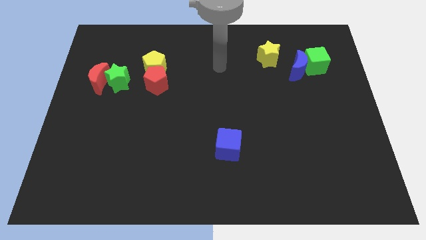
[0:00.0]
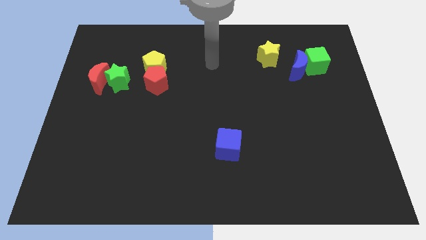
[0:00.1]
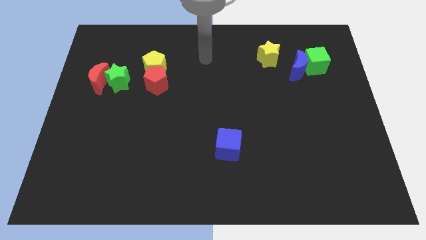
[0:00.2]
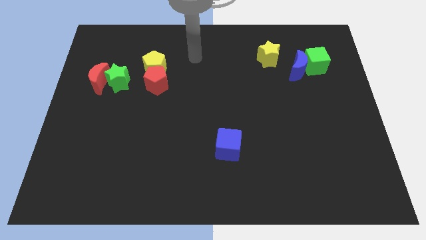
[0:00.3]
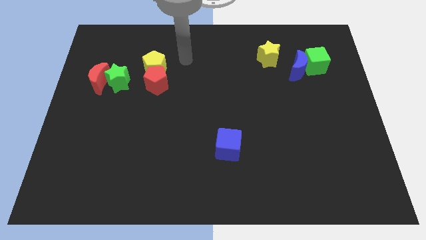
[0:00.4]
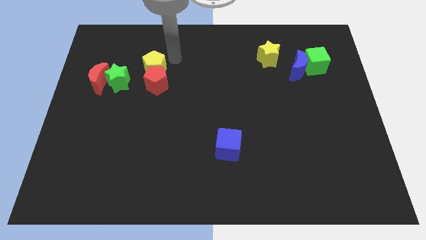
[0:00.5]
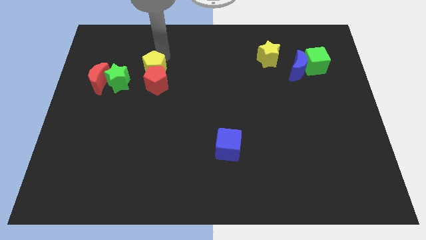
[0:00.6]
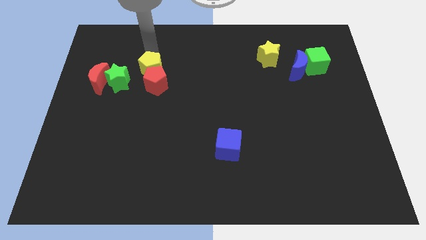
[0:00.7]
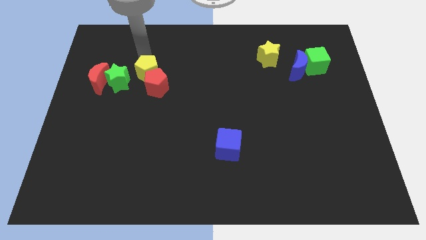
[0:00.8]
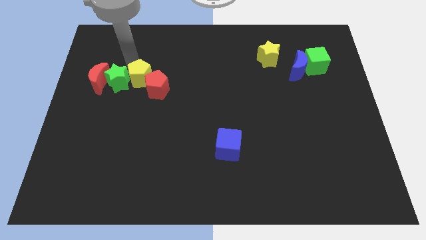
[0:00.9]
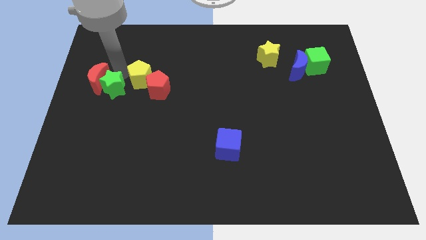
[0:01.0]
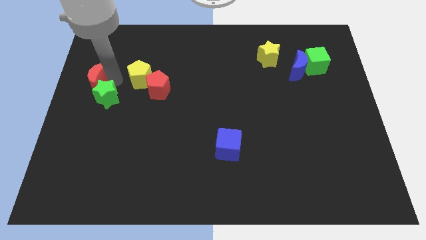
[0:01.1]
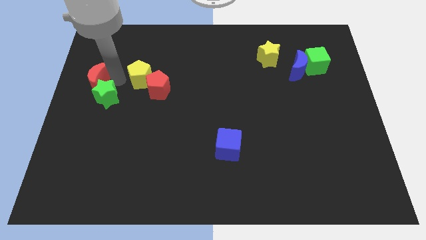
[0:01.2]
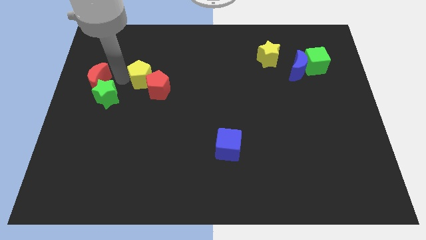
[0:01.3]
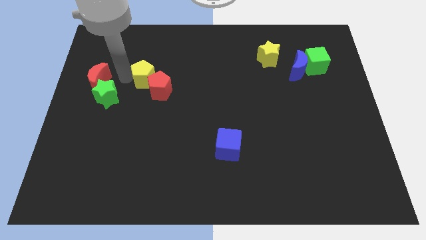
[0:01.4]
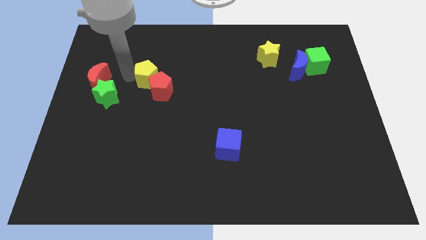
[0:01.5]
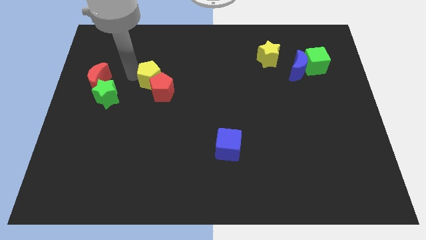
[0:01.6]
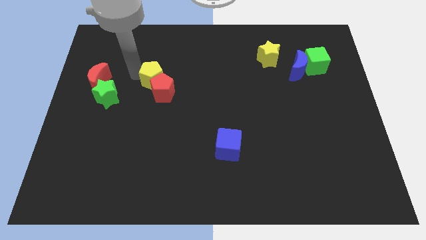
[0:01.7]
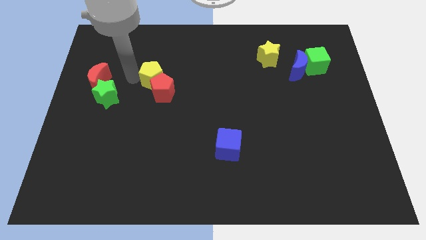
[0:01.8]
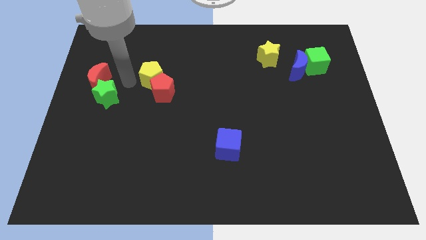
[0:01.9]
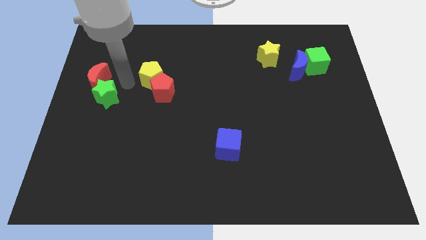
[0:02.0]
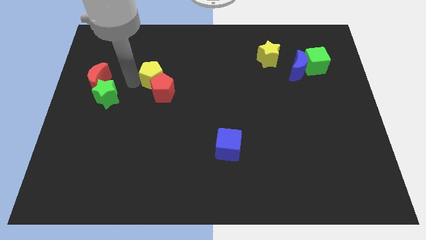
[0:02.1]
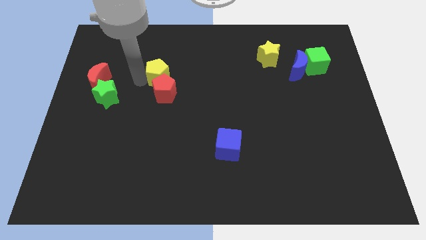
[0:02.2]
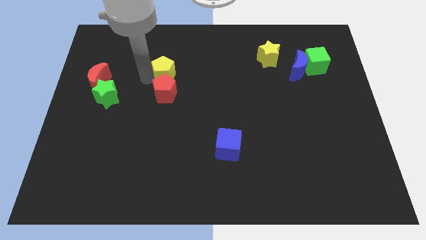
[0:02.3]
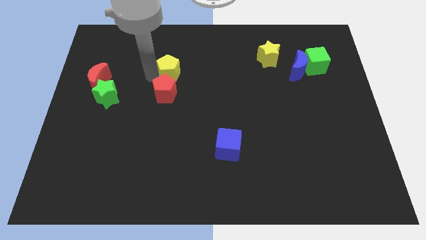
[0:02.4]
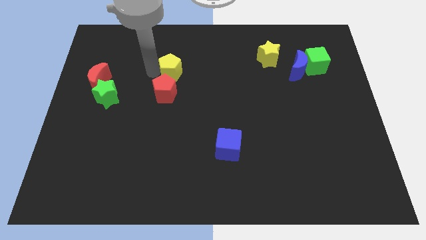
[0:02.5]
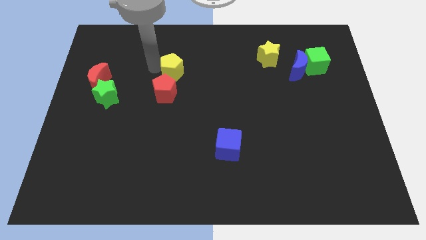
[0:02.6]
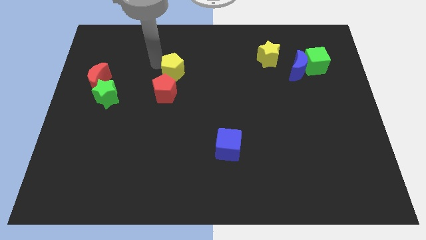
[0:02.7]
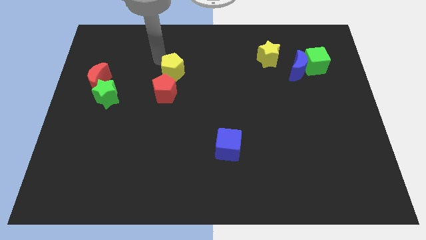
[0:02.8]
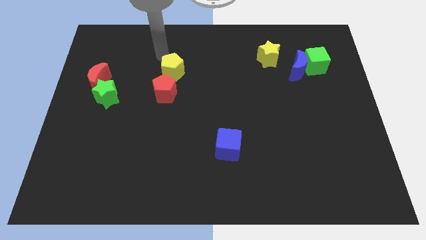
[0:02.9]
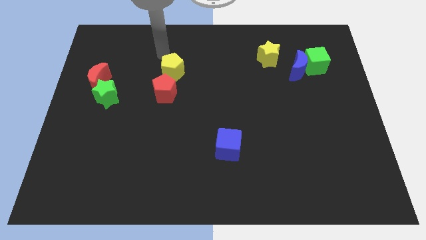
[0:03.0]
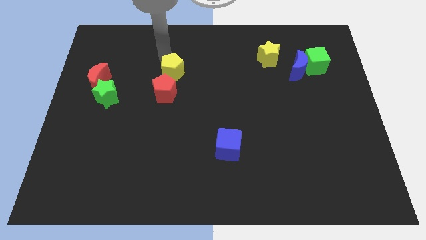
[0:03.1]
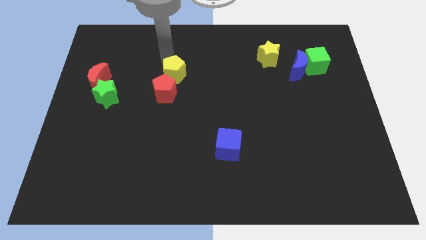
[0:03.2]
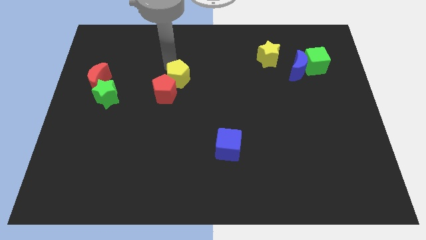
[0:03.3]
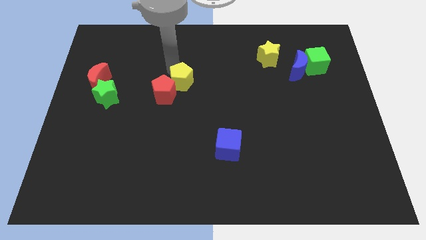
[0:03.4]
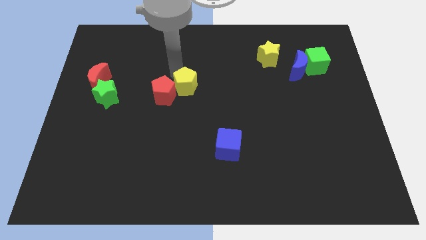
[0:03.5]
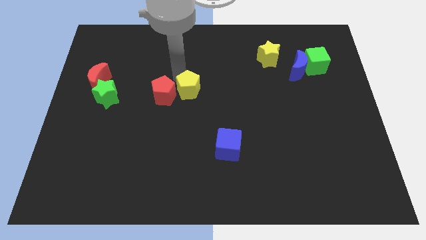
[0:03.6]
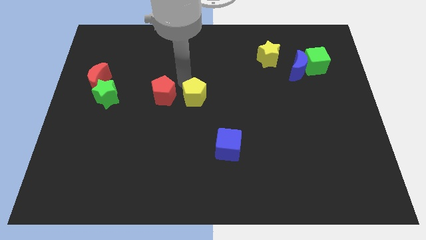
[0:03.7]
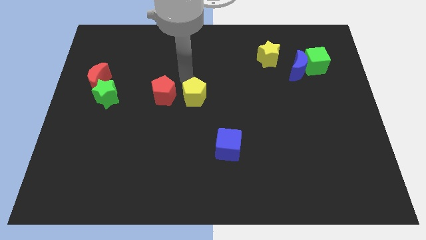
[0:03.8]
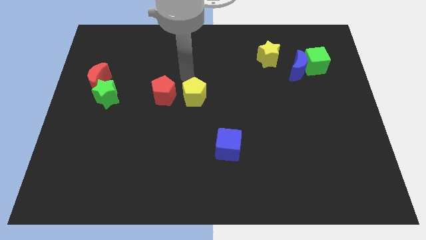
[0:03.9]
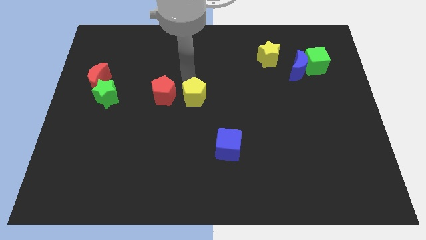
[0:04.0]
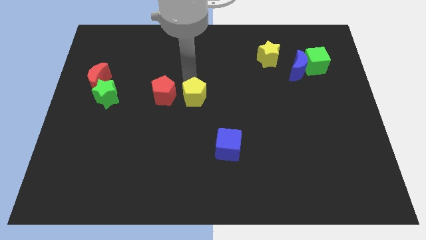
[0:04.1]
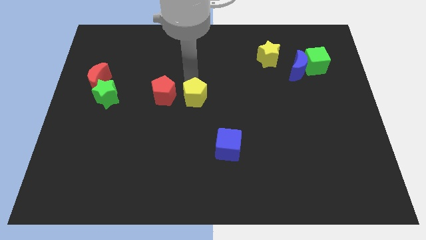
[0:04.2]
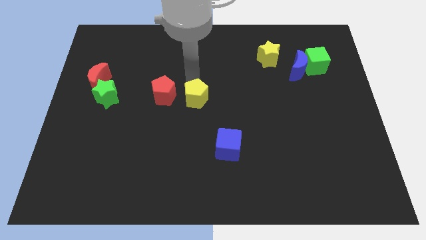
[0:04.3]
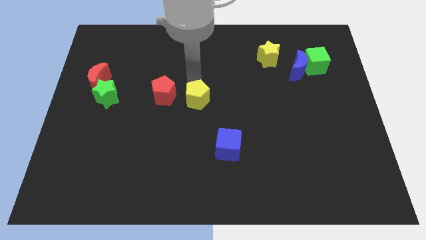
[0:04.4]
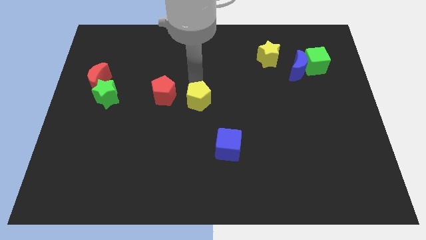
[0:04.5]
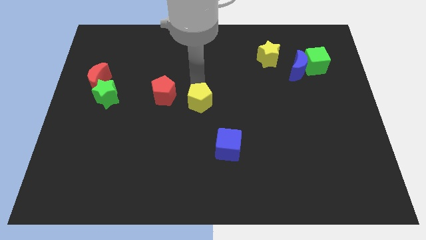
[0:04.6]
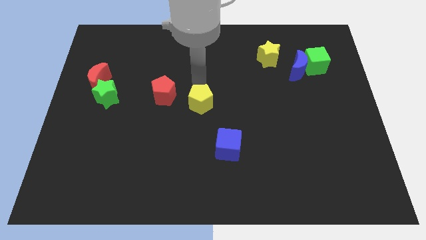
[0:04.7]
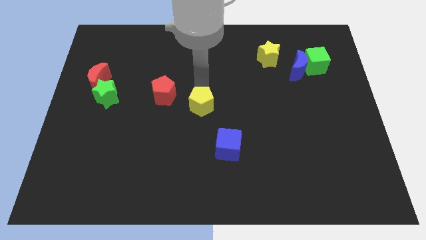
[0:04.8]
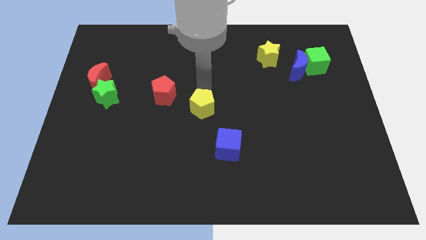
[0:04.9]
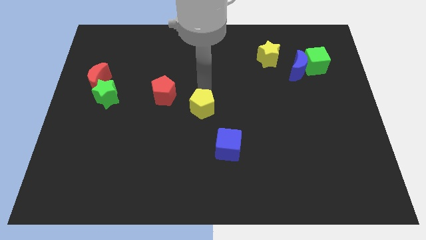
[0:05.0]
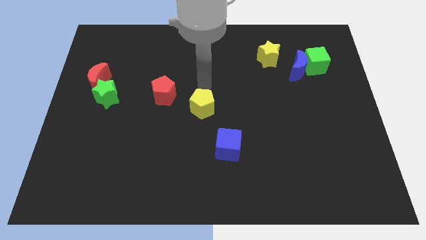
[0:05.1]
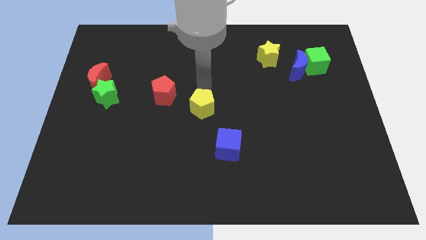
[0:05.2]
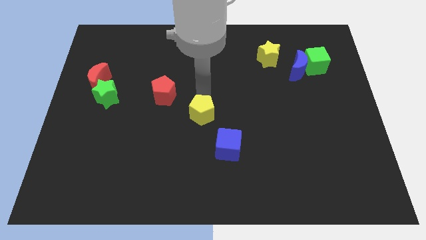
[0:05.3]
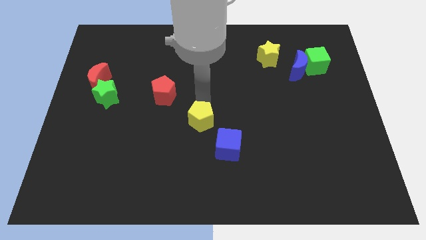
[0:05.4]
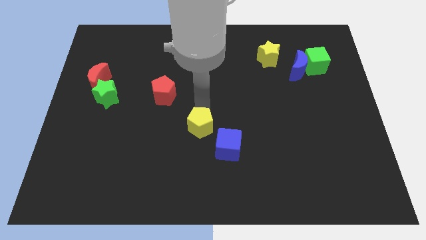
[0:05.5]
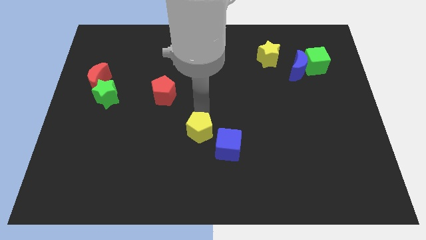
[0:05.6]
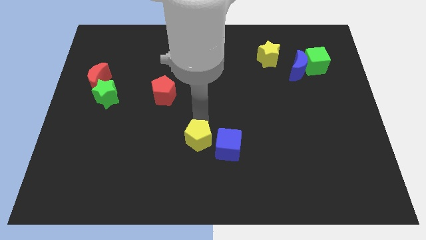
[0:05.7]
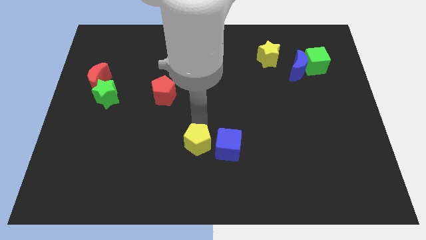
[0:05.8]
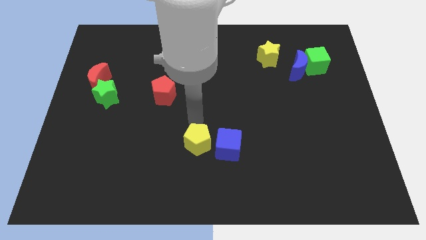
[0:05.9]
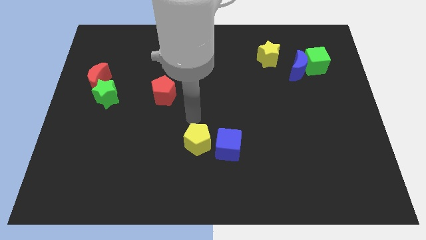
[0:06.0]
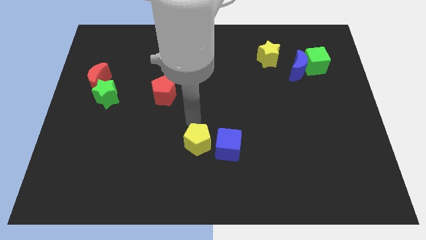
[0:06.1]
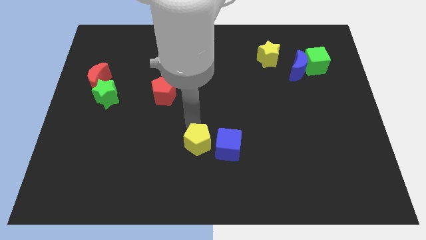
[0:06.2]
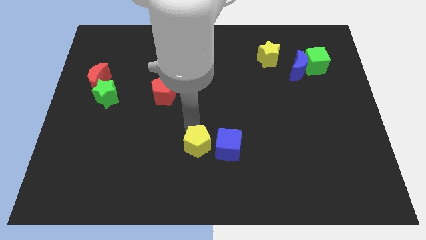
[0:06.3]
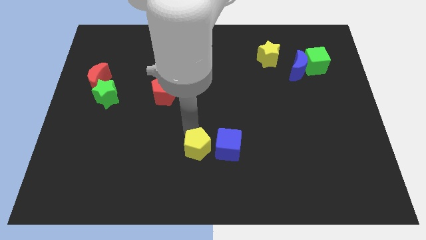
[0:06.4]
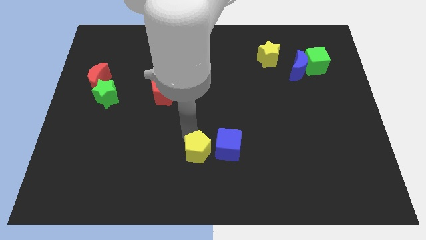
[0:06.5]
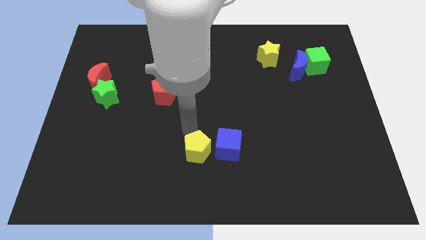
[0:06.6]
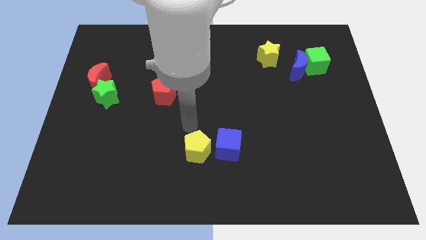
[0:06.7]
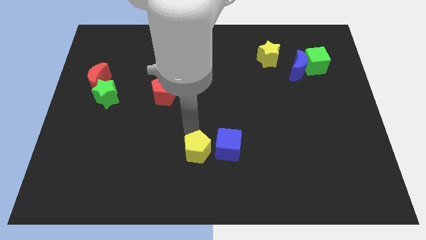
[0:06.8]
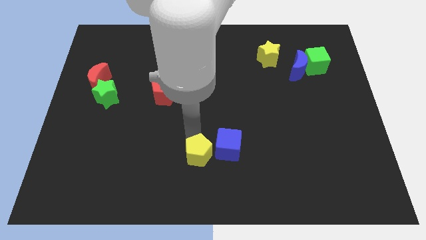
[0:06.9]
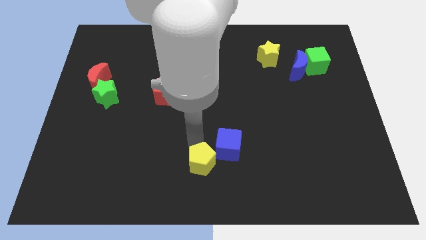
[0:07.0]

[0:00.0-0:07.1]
push the yellow pentagon to the bottom
